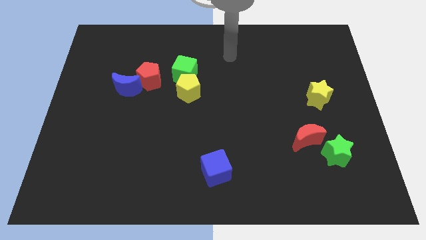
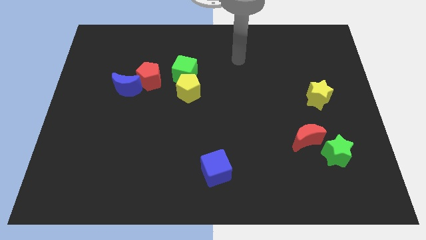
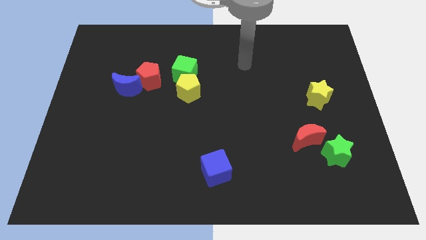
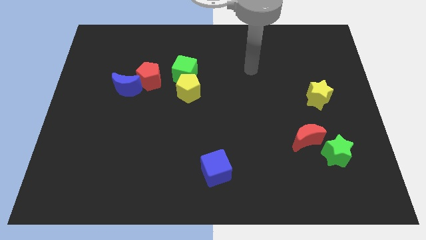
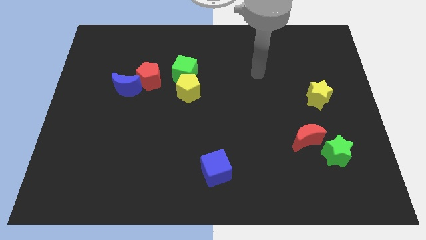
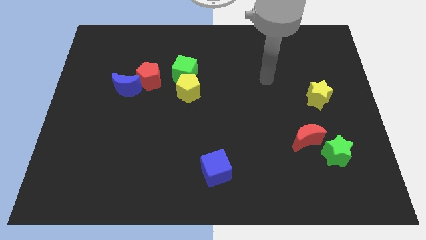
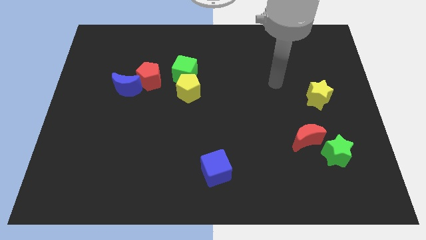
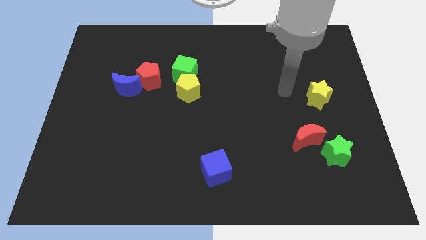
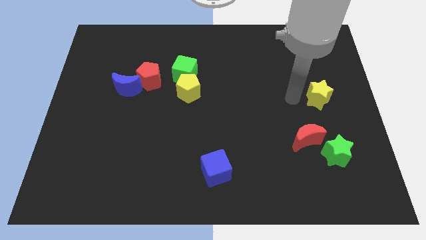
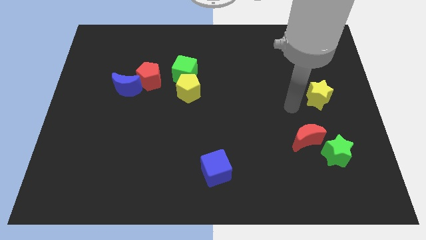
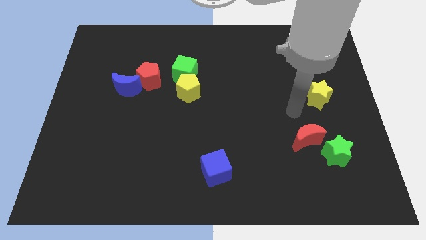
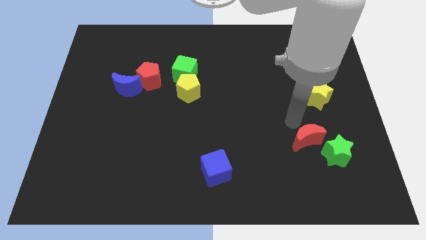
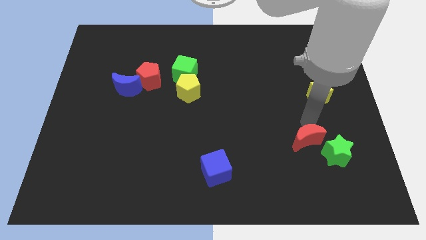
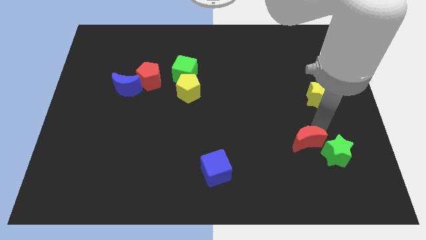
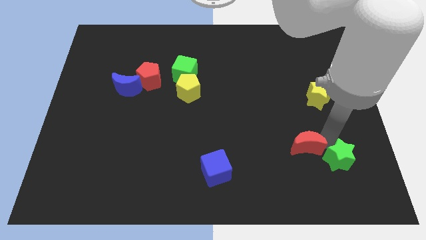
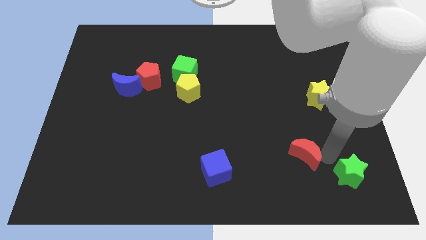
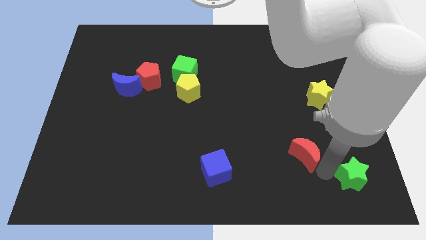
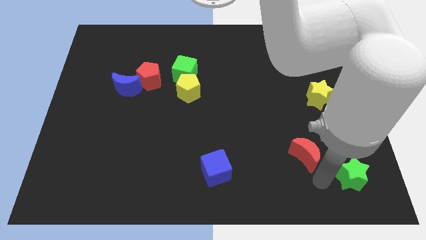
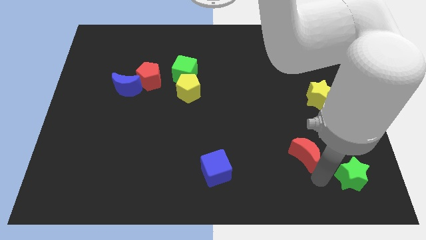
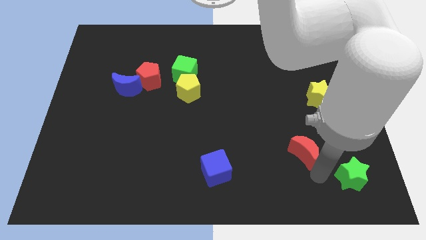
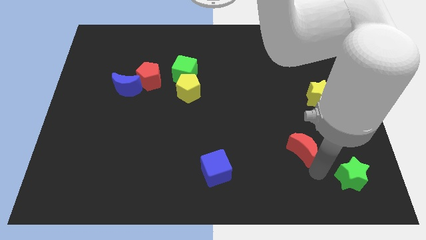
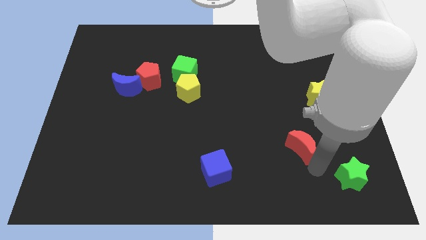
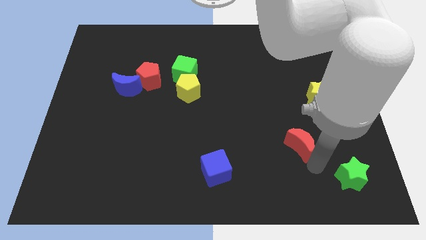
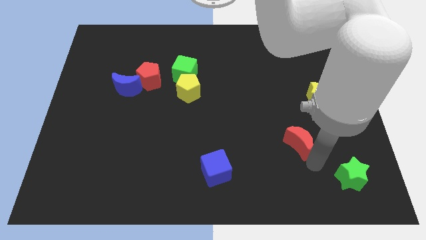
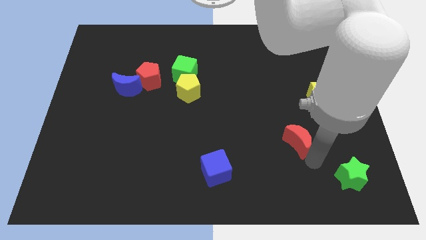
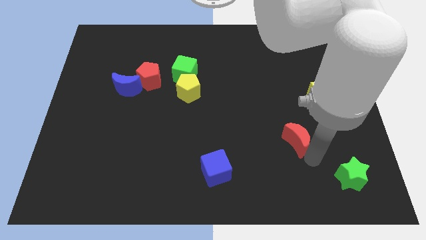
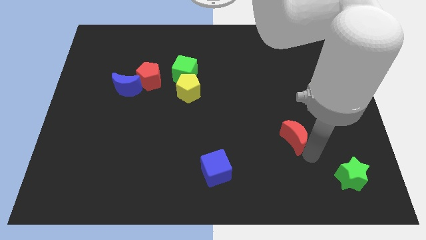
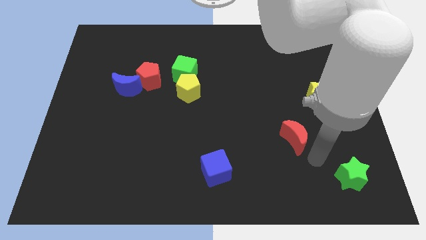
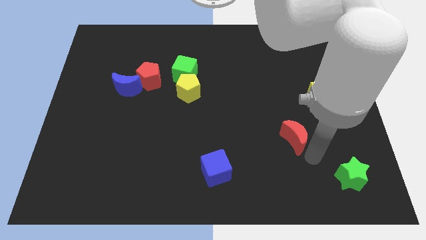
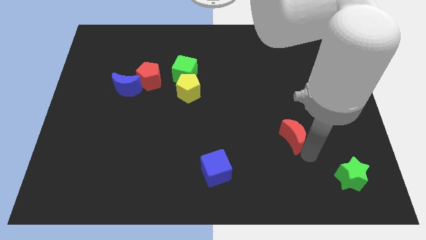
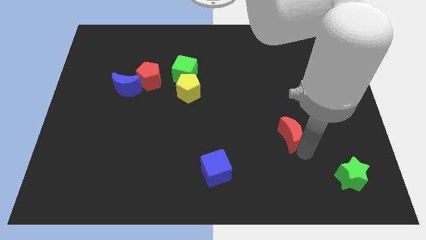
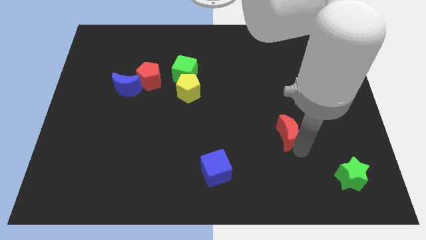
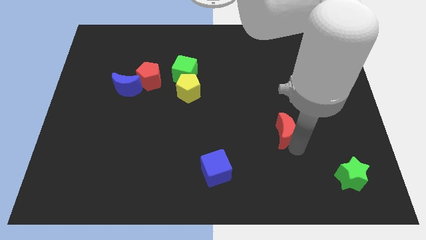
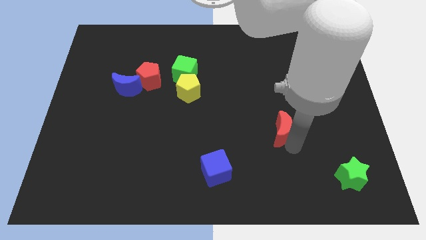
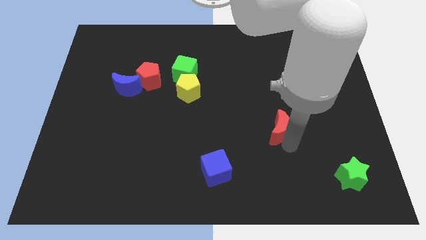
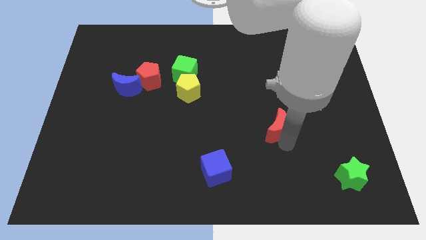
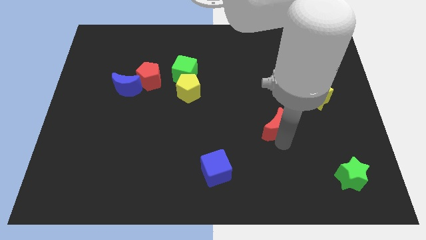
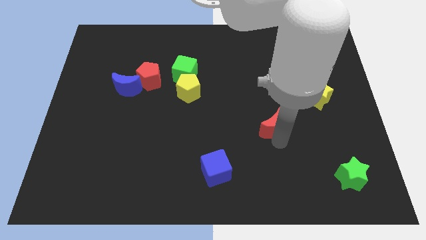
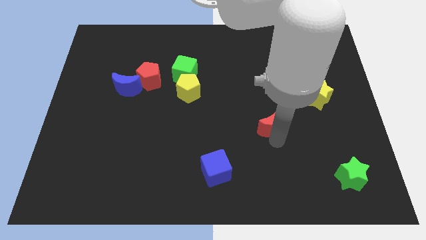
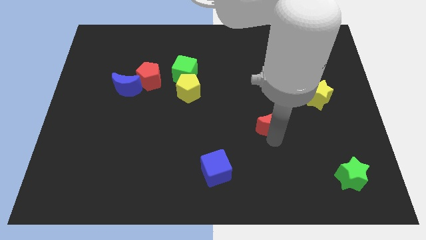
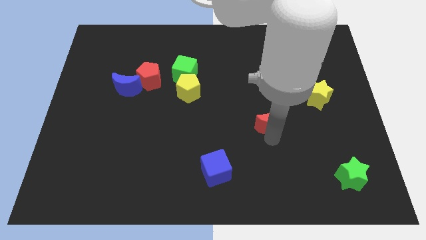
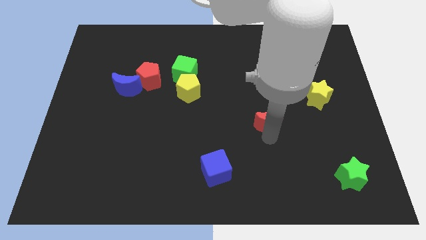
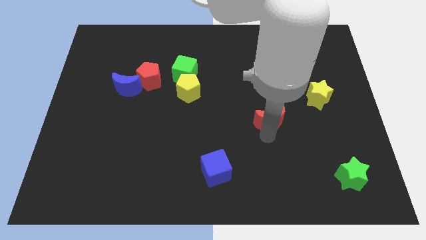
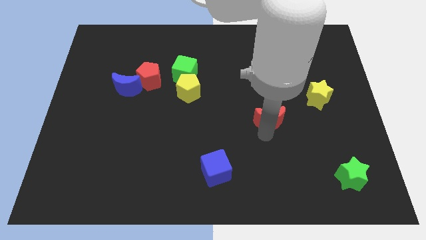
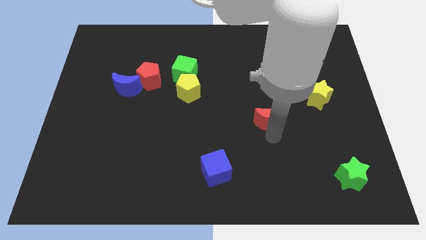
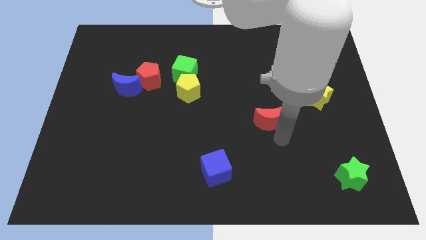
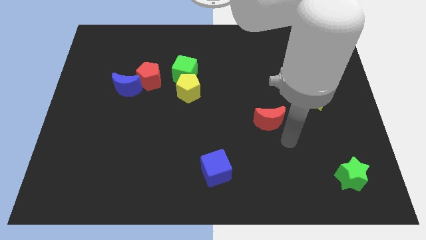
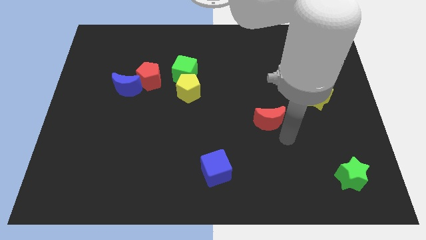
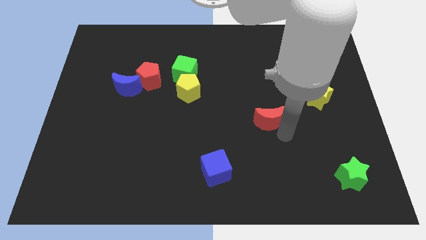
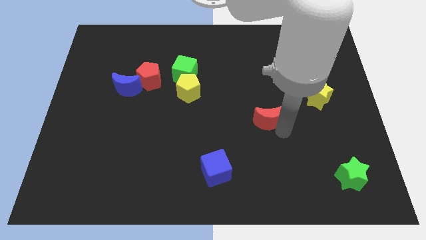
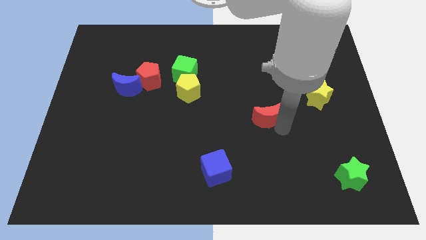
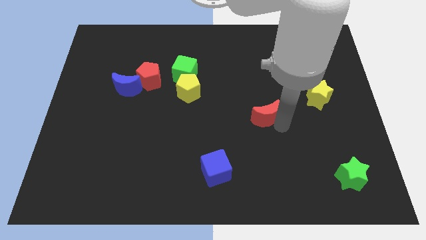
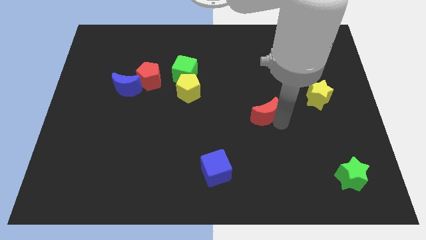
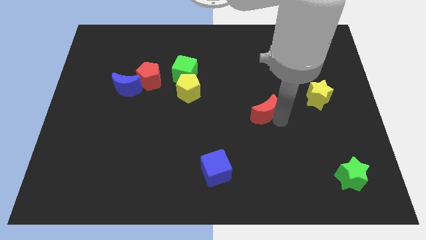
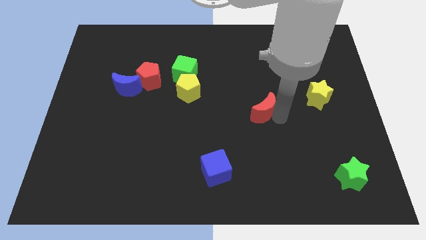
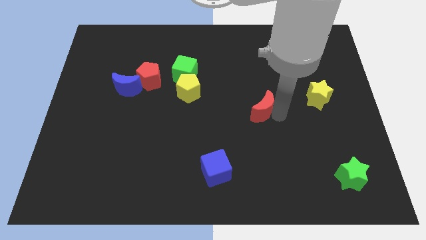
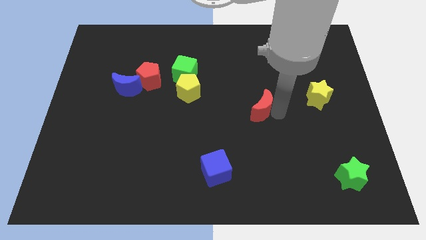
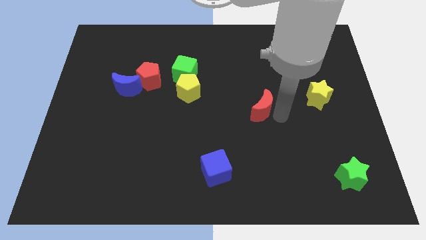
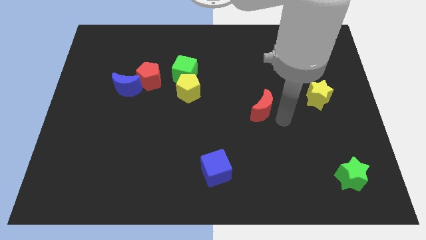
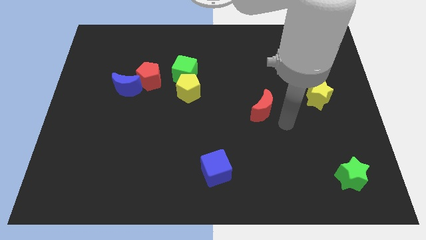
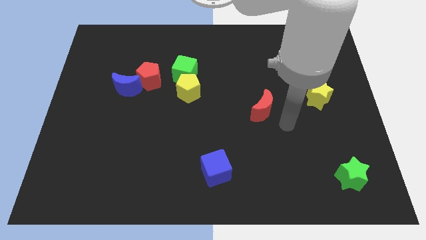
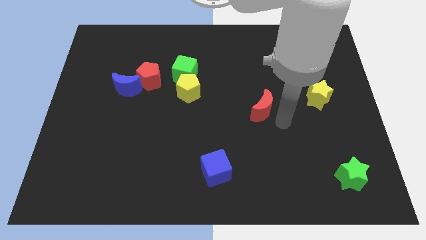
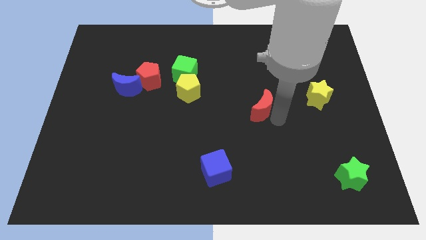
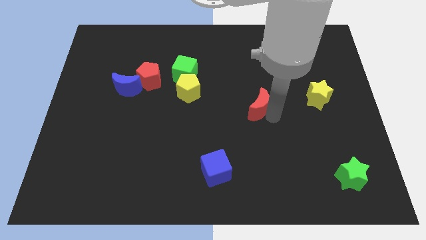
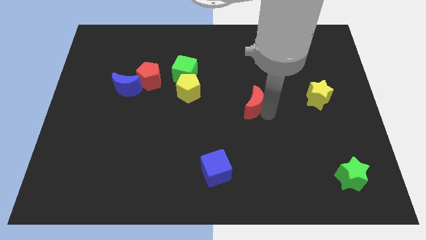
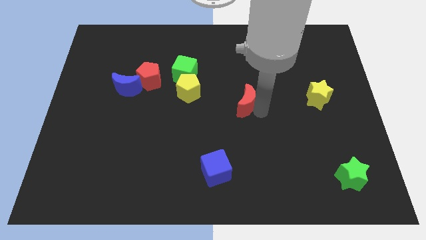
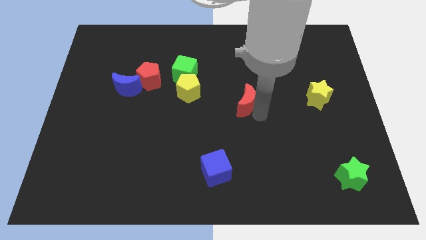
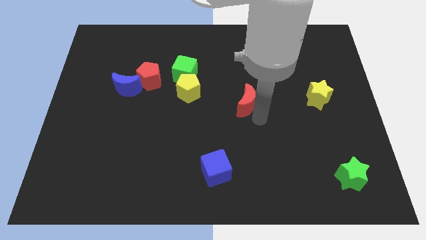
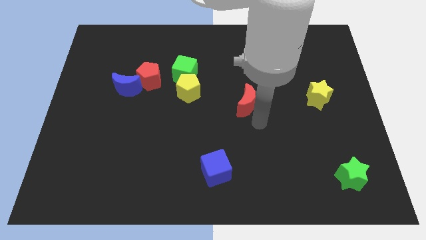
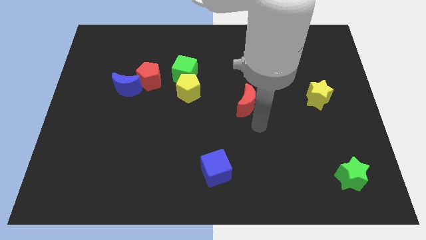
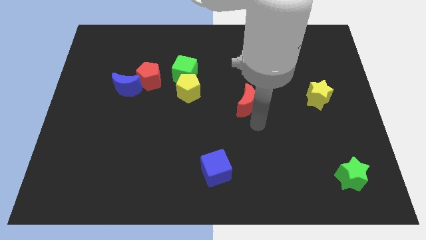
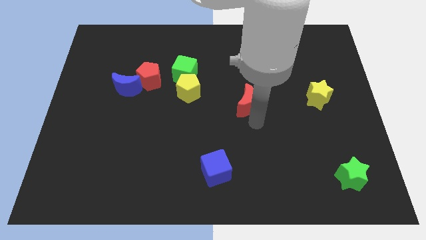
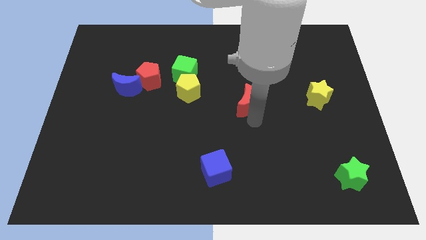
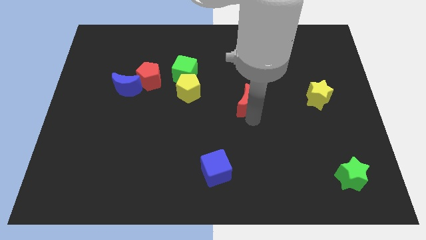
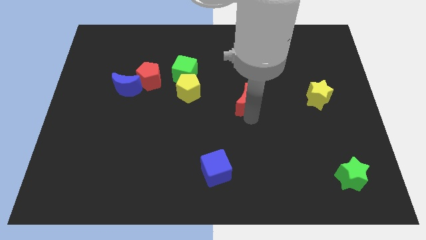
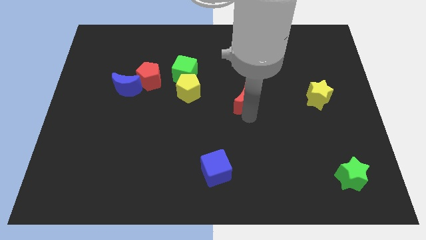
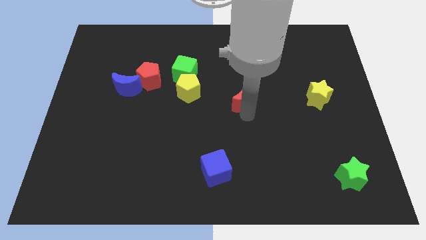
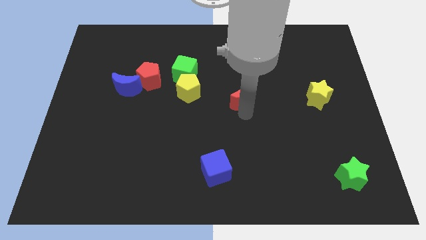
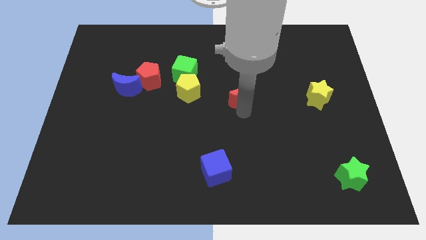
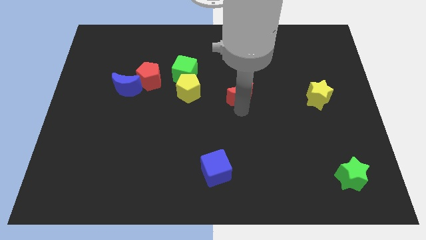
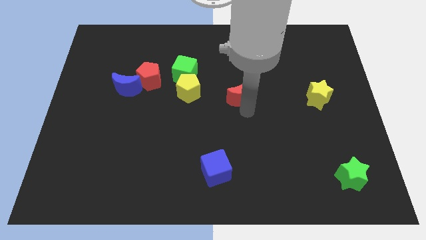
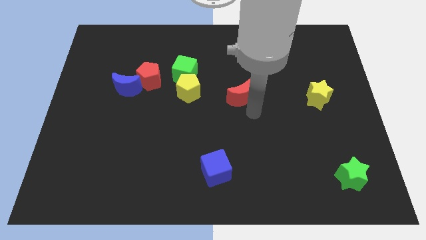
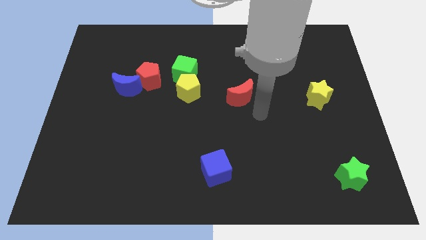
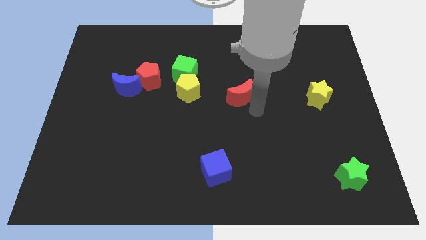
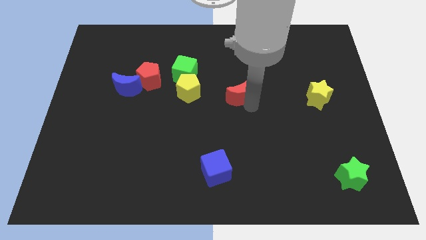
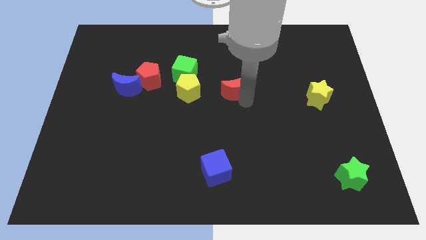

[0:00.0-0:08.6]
push the red moon up and to the left
